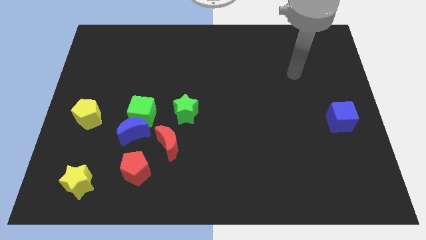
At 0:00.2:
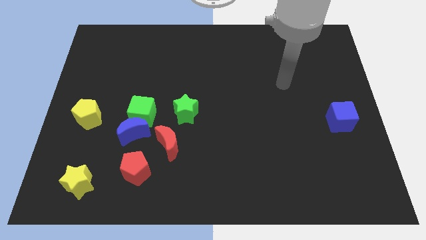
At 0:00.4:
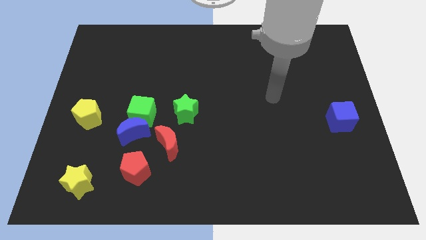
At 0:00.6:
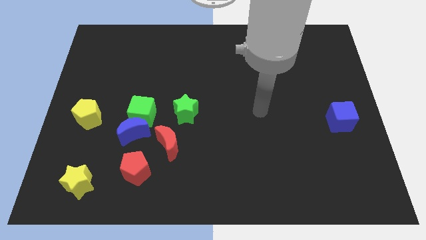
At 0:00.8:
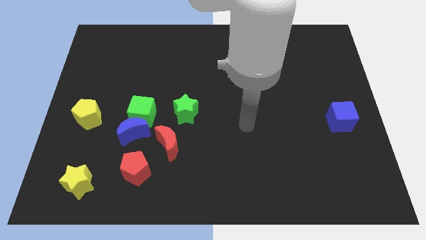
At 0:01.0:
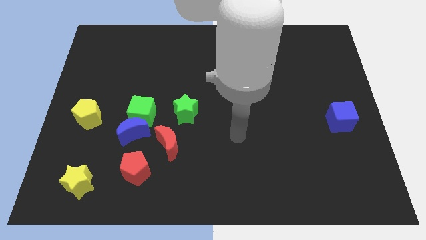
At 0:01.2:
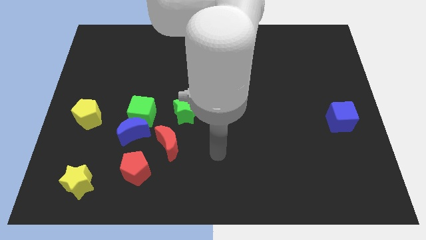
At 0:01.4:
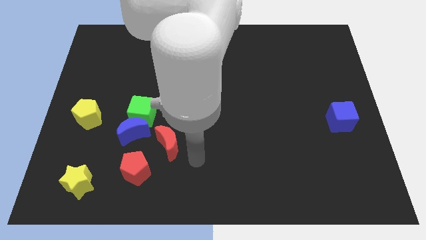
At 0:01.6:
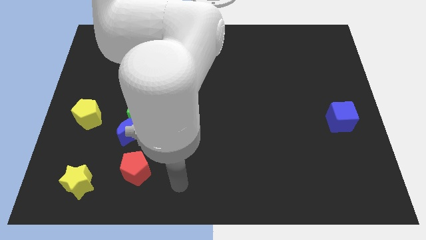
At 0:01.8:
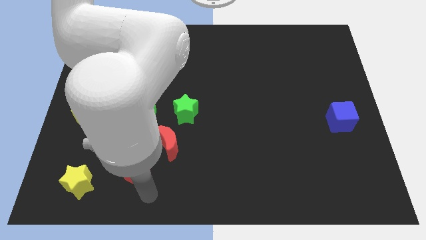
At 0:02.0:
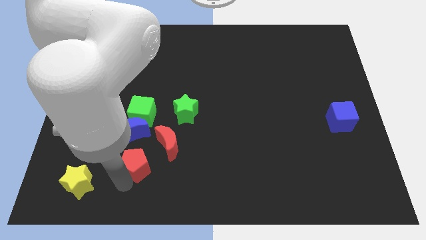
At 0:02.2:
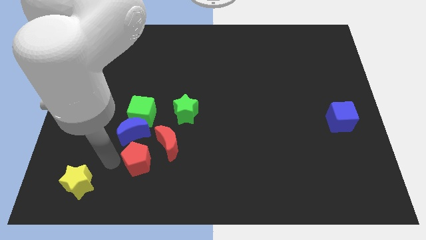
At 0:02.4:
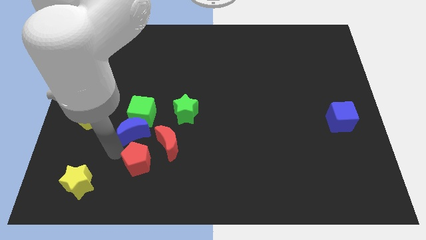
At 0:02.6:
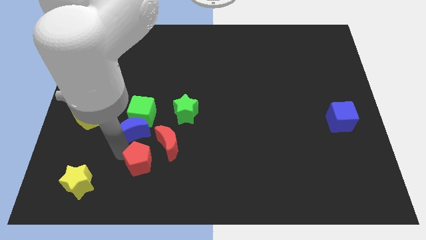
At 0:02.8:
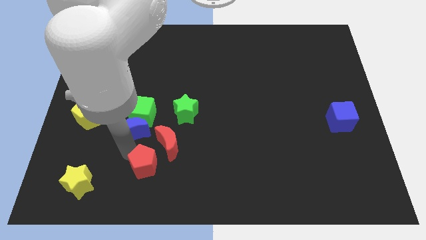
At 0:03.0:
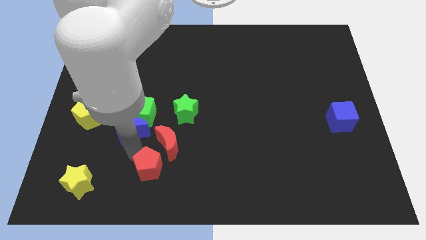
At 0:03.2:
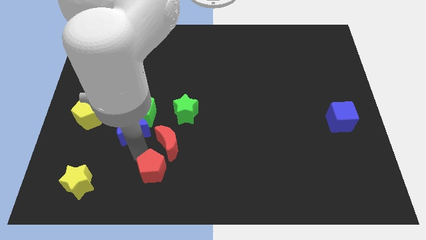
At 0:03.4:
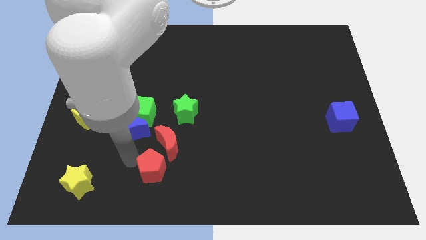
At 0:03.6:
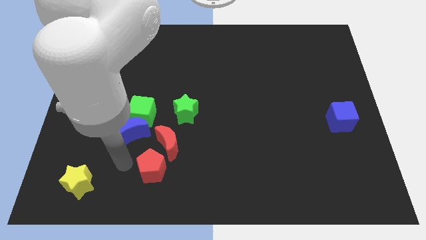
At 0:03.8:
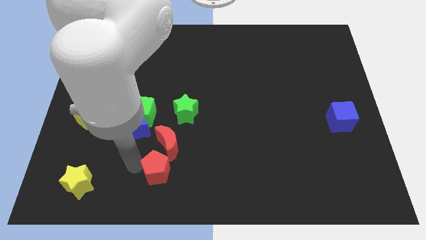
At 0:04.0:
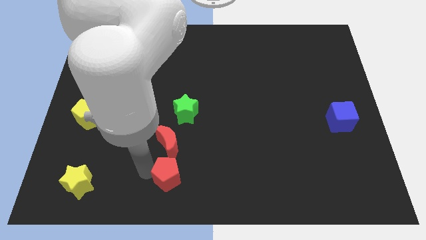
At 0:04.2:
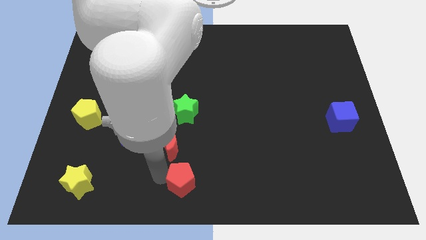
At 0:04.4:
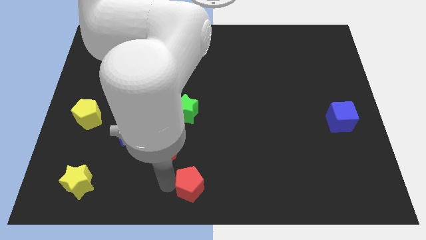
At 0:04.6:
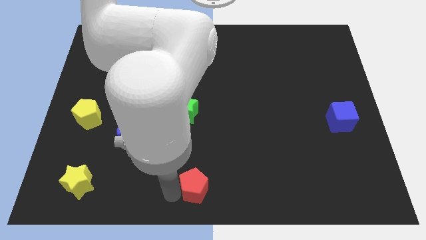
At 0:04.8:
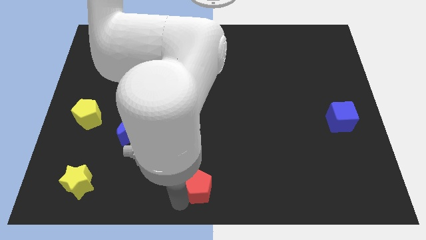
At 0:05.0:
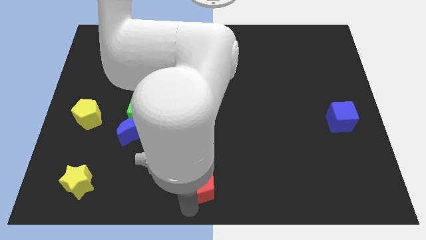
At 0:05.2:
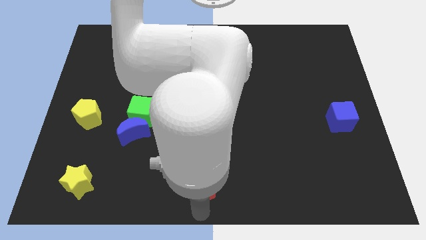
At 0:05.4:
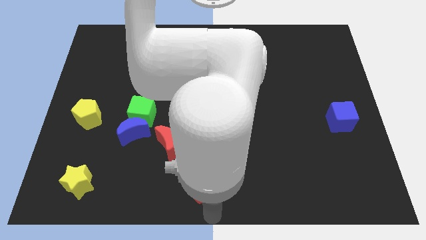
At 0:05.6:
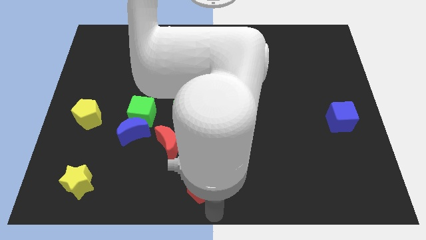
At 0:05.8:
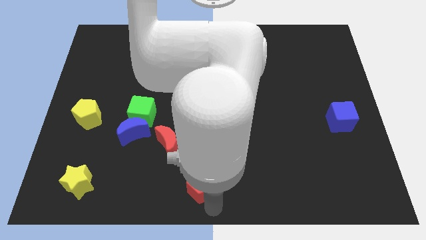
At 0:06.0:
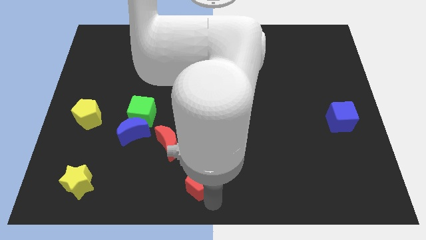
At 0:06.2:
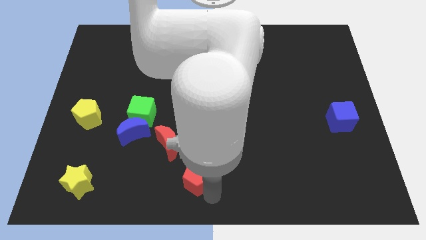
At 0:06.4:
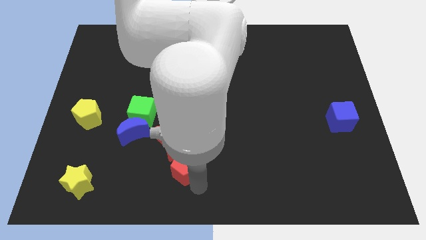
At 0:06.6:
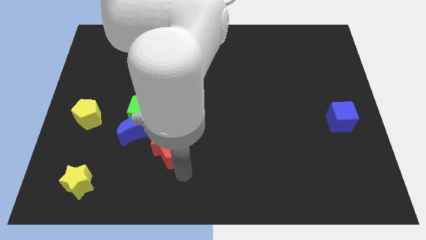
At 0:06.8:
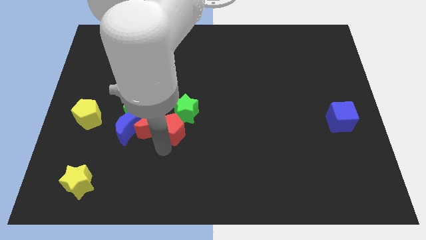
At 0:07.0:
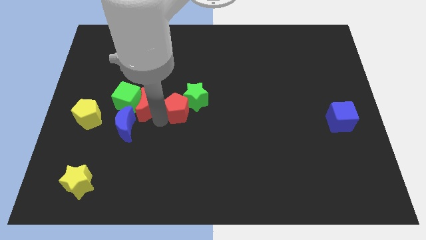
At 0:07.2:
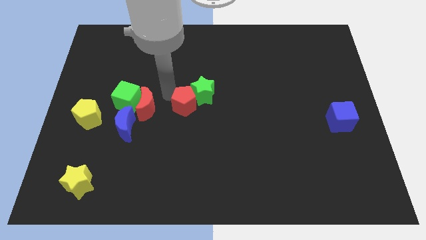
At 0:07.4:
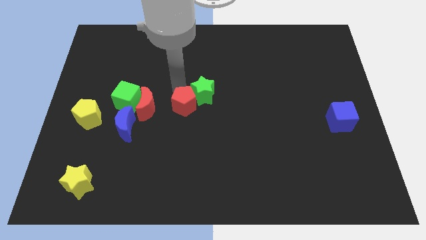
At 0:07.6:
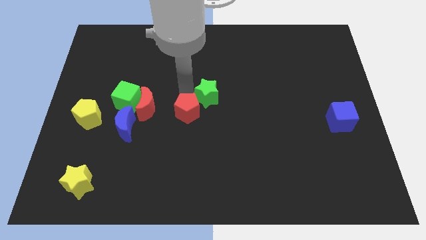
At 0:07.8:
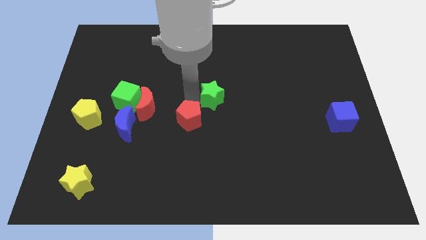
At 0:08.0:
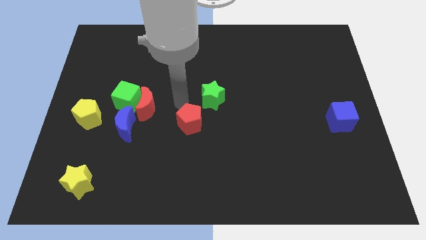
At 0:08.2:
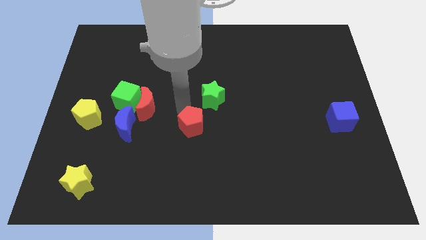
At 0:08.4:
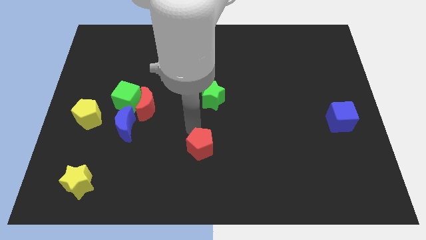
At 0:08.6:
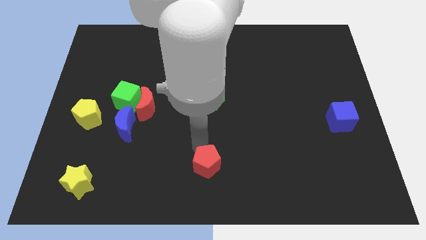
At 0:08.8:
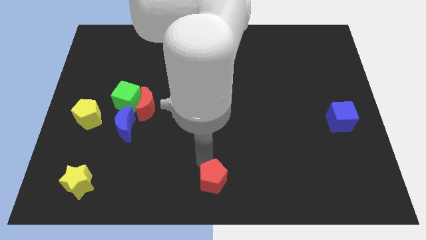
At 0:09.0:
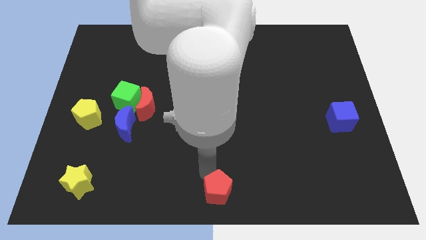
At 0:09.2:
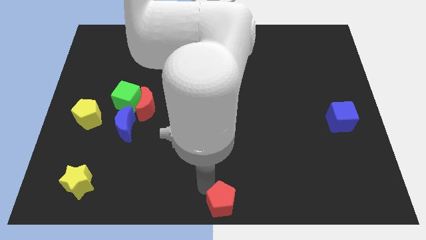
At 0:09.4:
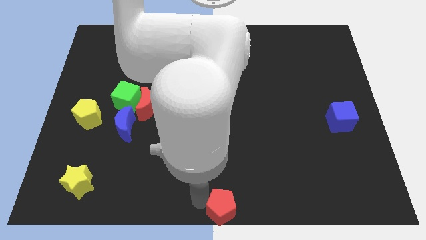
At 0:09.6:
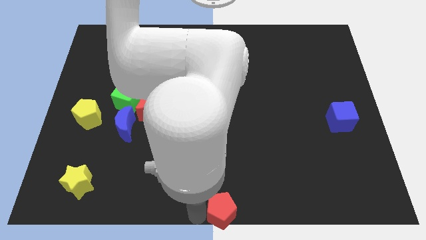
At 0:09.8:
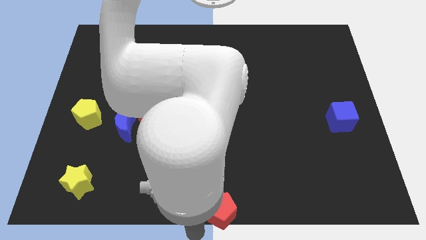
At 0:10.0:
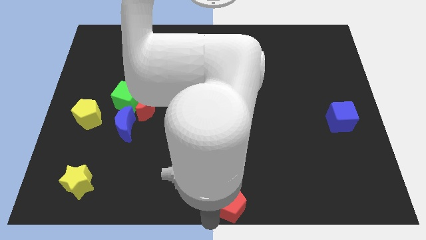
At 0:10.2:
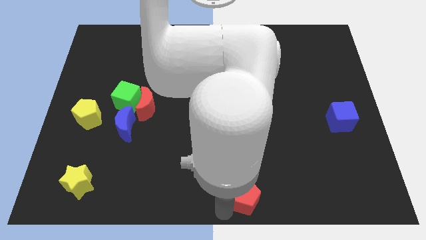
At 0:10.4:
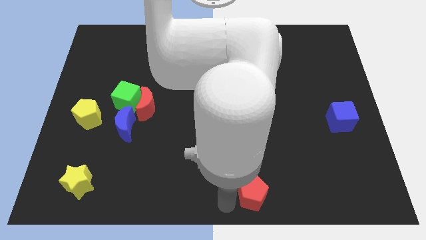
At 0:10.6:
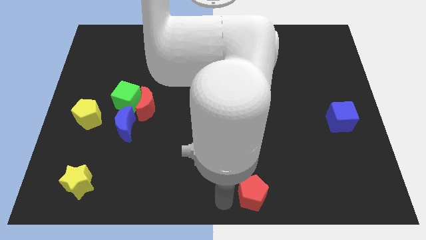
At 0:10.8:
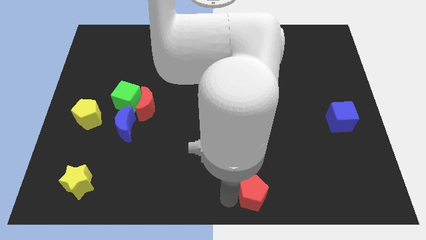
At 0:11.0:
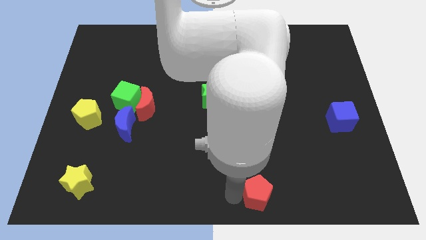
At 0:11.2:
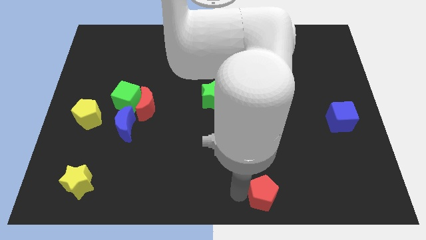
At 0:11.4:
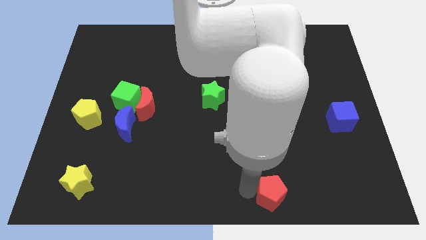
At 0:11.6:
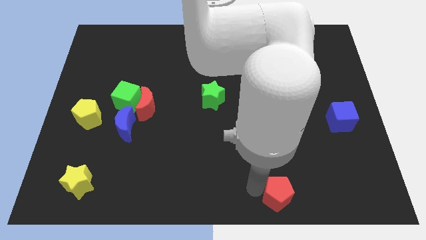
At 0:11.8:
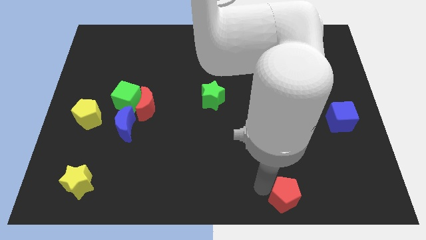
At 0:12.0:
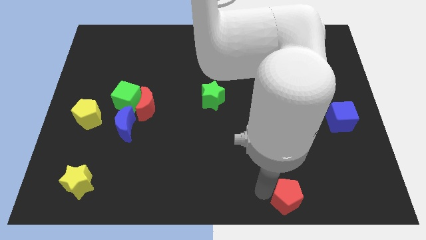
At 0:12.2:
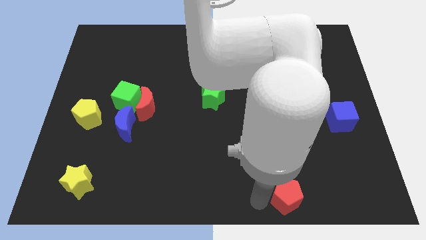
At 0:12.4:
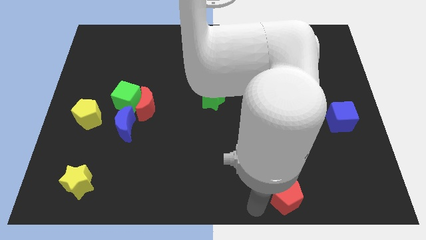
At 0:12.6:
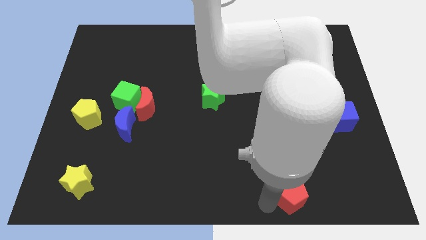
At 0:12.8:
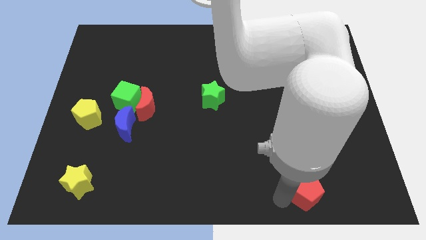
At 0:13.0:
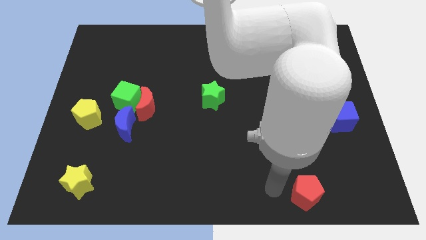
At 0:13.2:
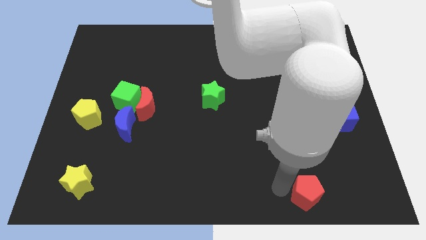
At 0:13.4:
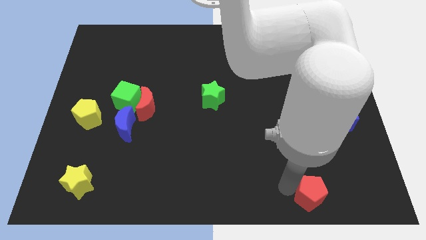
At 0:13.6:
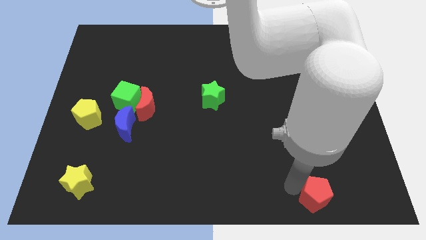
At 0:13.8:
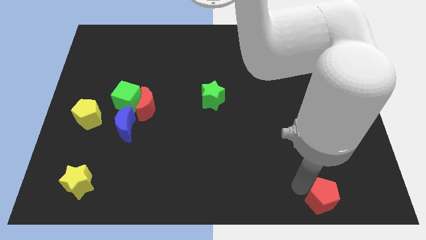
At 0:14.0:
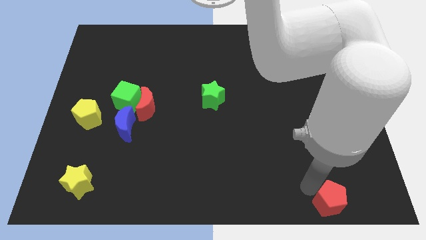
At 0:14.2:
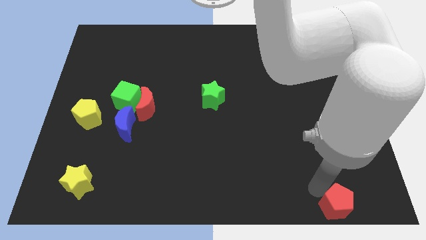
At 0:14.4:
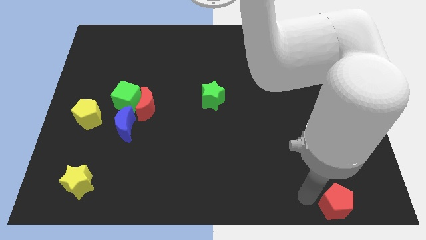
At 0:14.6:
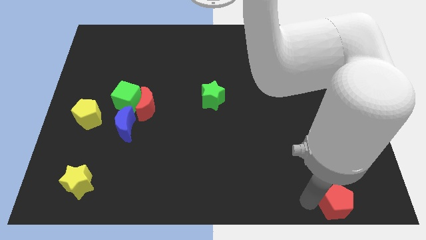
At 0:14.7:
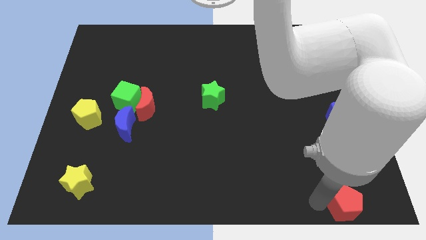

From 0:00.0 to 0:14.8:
put the red pentagon to the lower right corner
